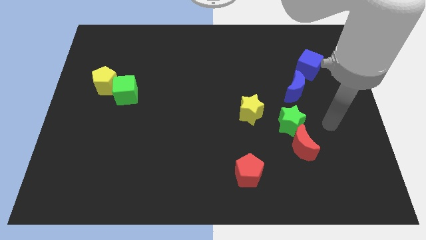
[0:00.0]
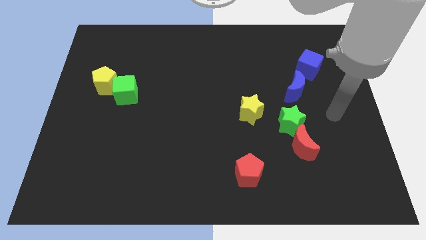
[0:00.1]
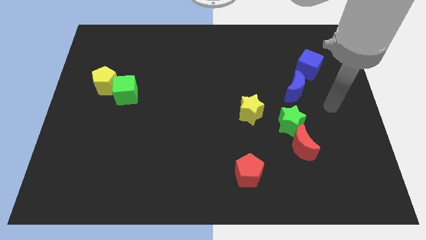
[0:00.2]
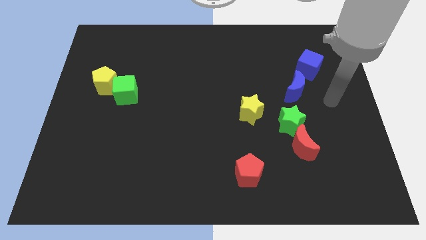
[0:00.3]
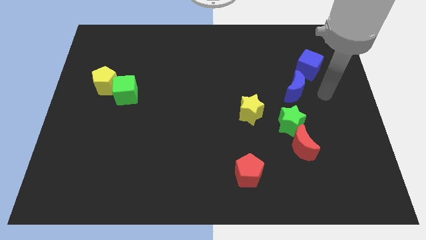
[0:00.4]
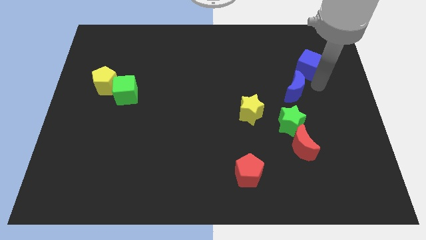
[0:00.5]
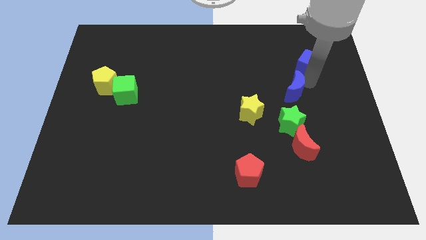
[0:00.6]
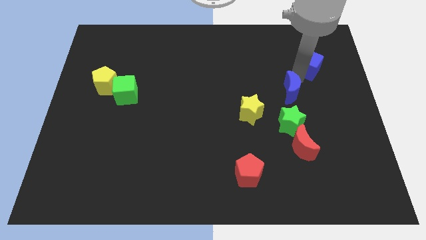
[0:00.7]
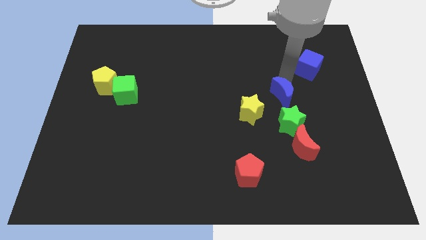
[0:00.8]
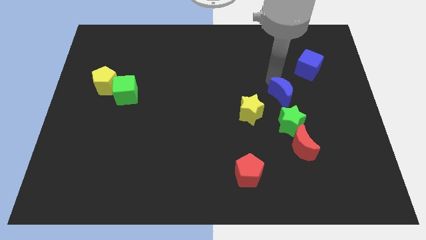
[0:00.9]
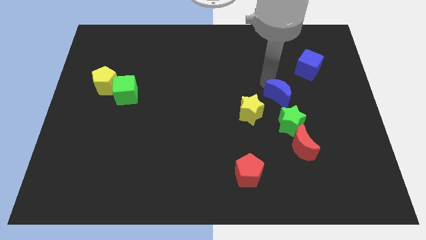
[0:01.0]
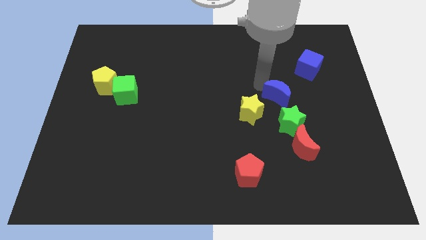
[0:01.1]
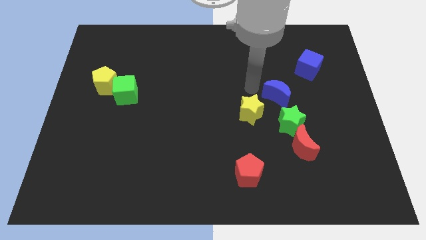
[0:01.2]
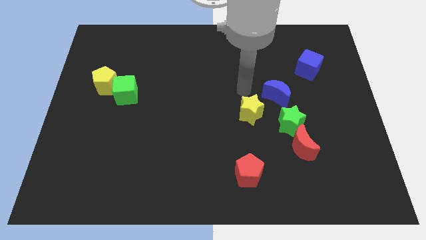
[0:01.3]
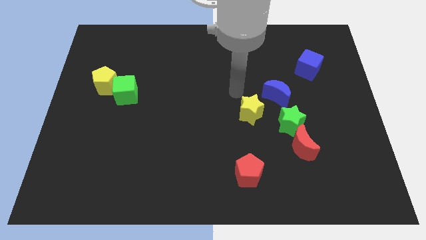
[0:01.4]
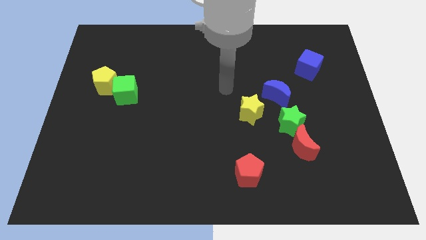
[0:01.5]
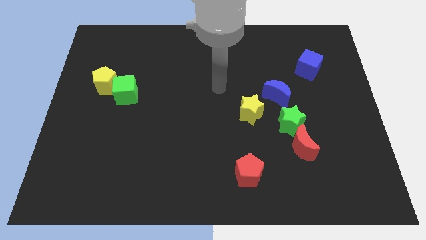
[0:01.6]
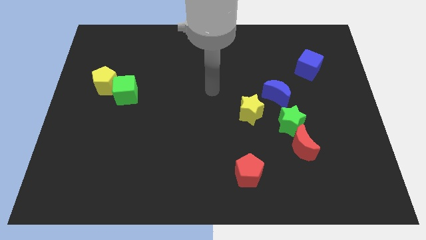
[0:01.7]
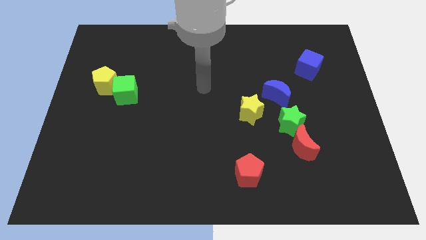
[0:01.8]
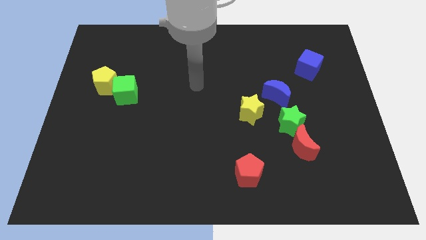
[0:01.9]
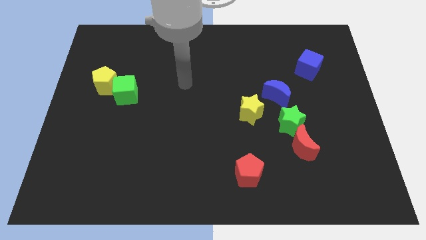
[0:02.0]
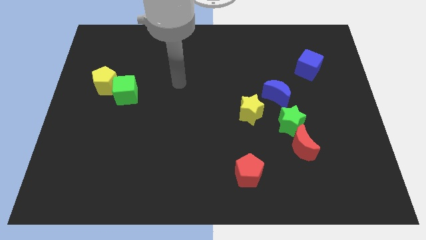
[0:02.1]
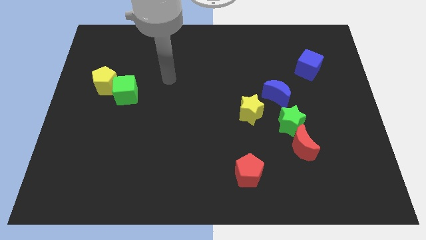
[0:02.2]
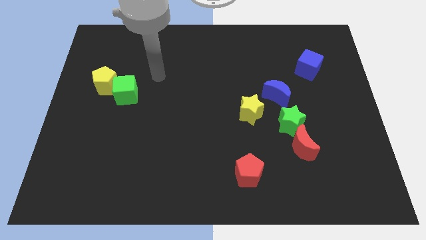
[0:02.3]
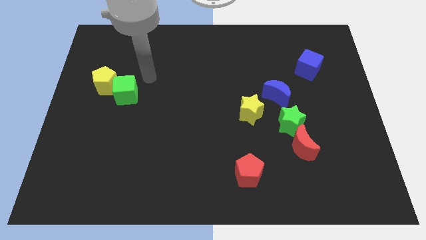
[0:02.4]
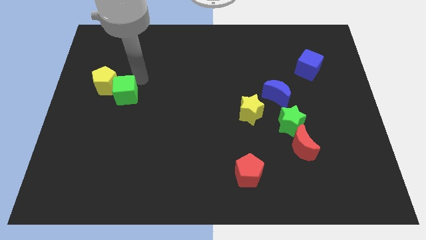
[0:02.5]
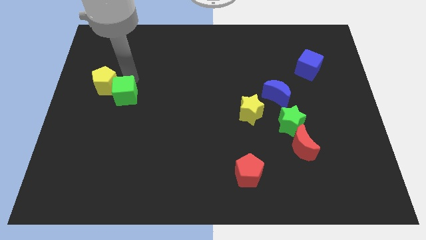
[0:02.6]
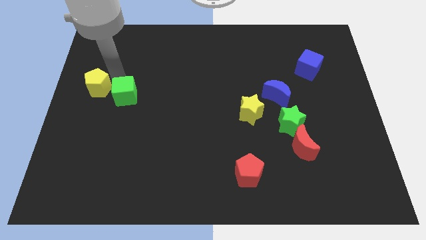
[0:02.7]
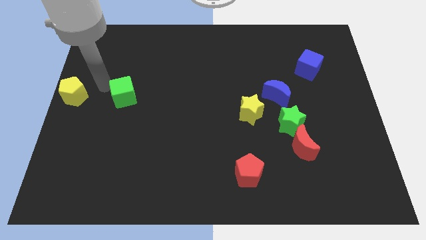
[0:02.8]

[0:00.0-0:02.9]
separate the green cube from the yellow pentagon

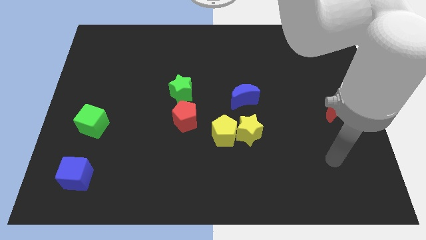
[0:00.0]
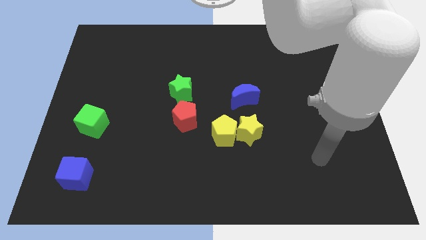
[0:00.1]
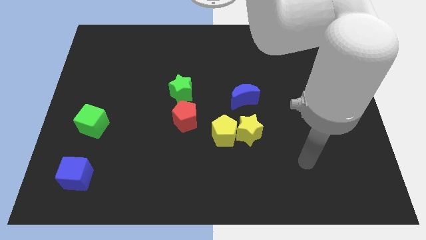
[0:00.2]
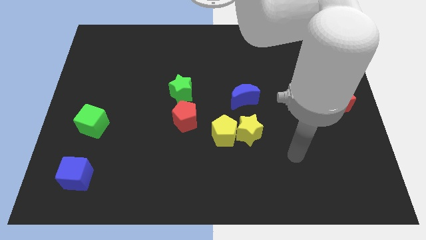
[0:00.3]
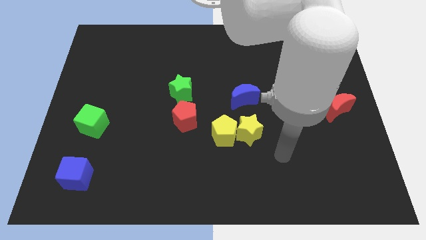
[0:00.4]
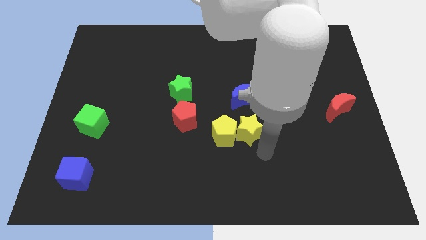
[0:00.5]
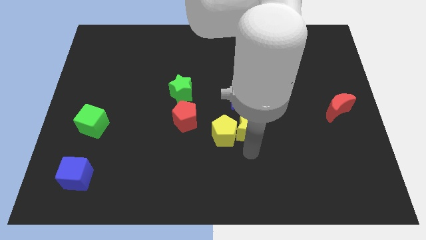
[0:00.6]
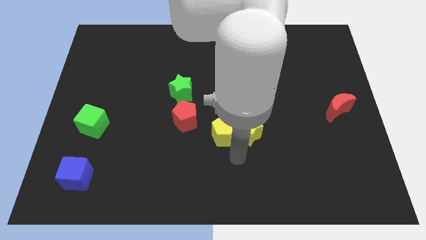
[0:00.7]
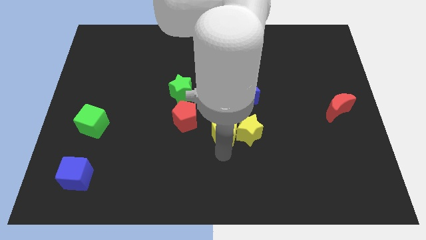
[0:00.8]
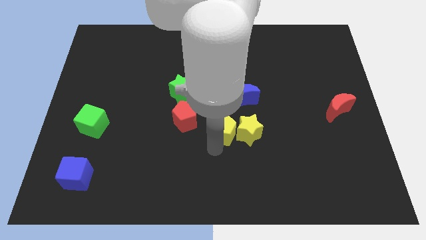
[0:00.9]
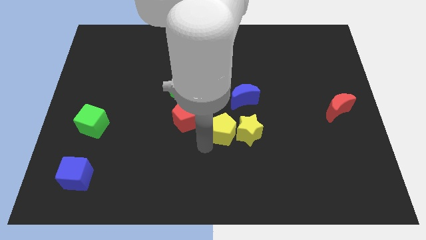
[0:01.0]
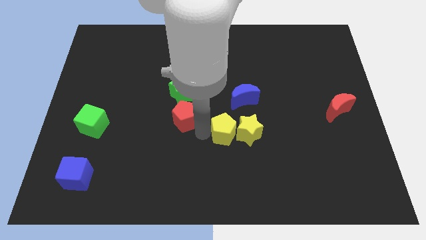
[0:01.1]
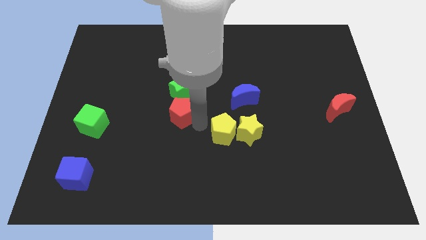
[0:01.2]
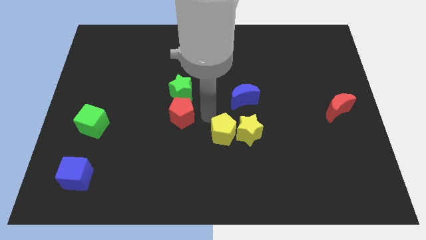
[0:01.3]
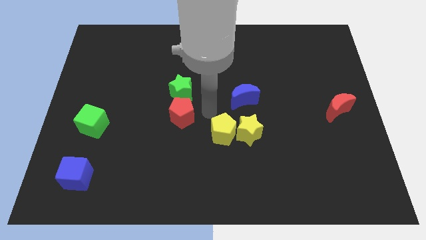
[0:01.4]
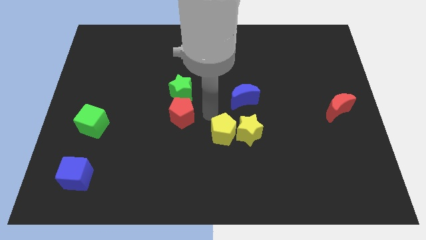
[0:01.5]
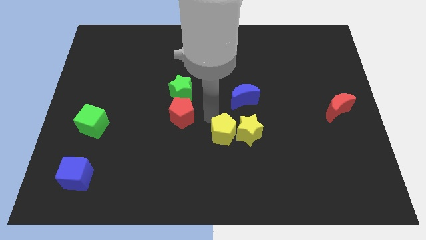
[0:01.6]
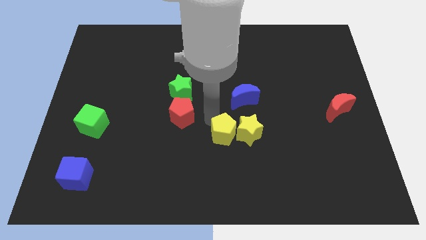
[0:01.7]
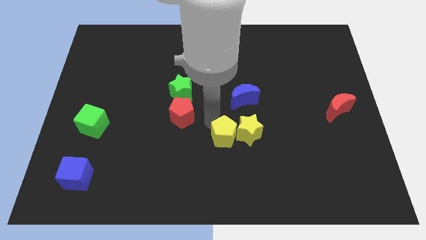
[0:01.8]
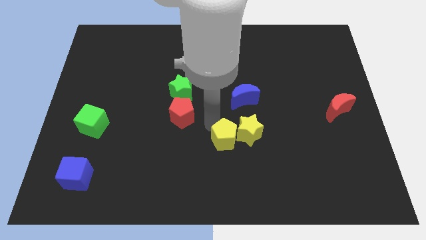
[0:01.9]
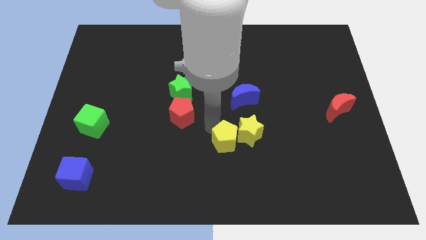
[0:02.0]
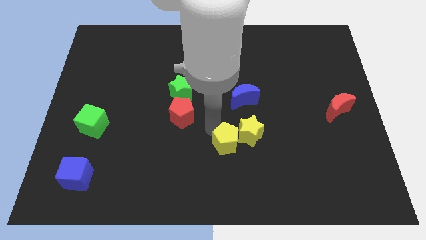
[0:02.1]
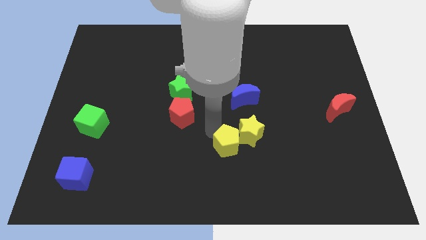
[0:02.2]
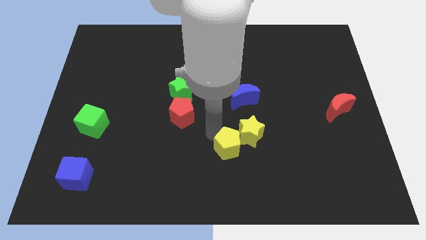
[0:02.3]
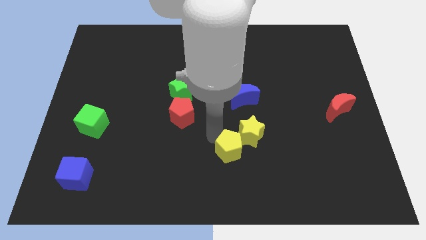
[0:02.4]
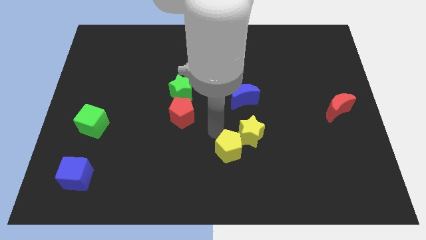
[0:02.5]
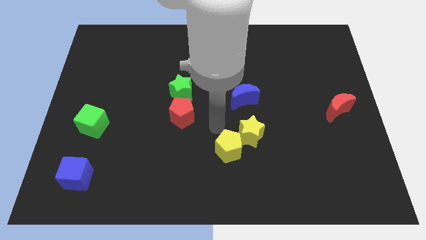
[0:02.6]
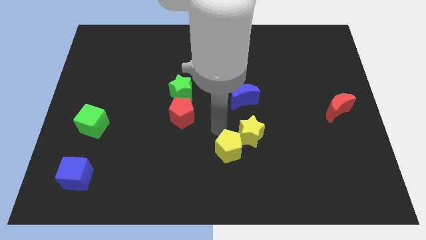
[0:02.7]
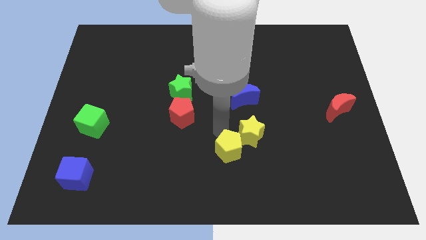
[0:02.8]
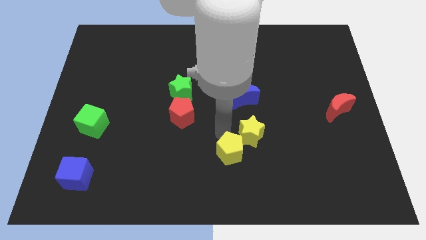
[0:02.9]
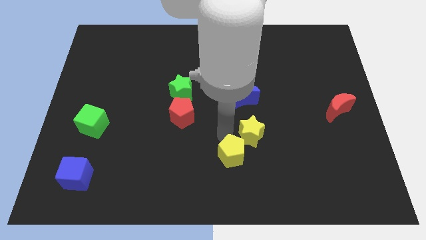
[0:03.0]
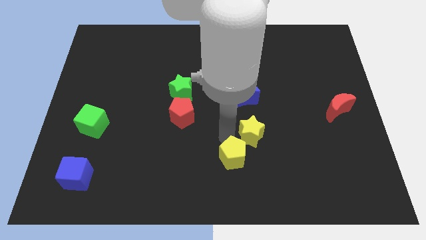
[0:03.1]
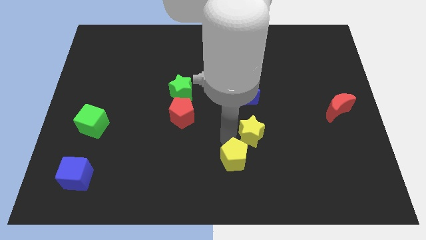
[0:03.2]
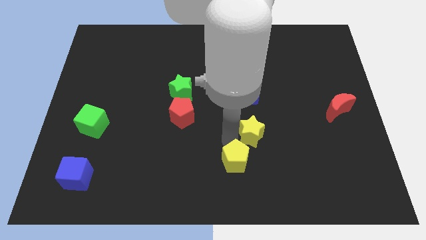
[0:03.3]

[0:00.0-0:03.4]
move the yellow pentagon away from the yellow star and red pentagon

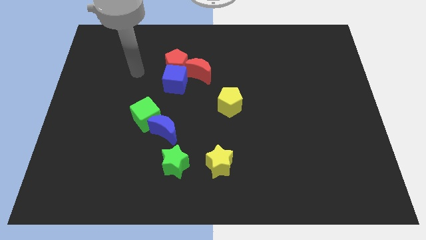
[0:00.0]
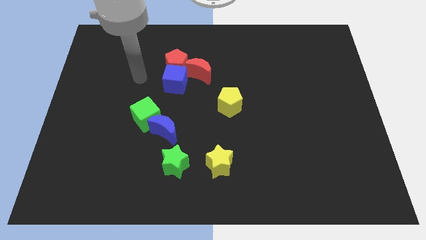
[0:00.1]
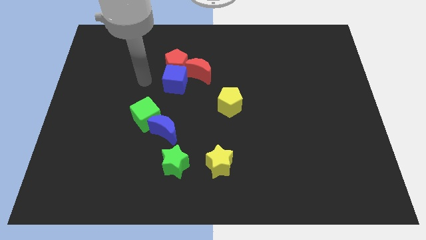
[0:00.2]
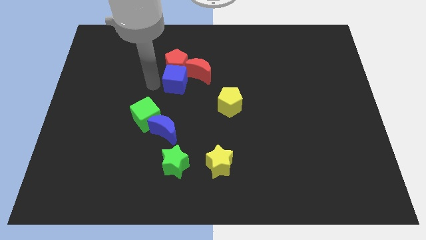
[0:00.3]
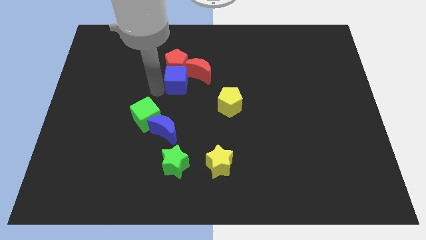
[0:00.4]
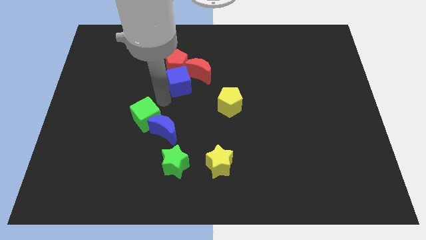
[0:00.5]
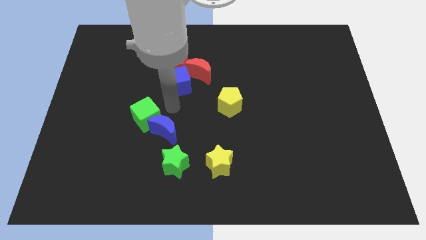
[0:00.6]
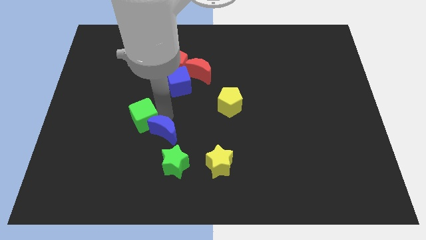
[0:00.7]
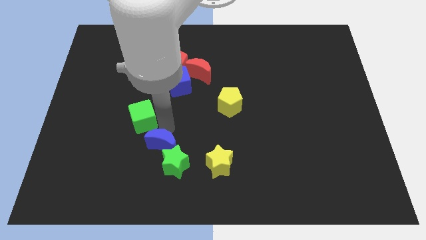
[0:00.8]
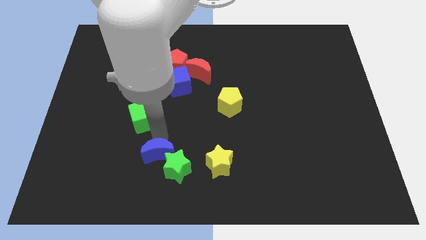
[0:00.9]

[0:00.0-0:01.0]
move the green cube away from the blue moon

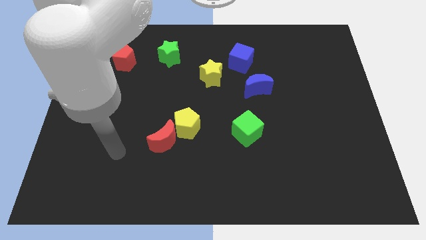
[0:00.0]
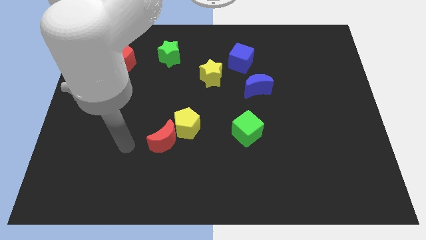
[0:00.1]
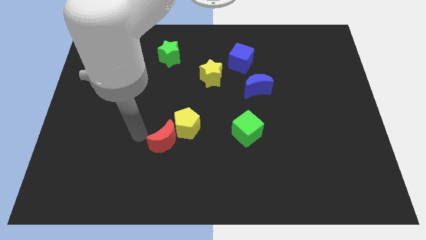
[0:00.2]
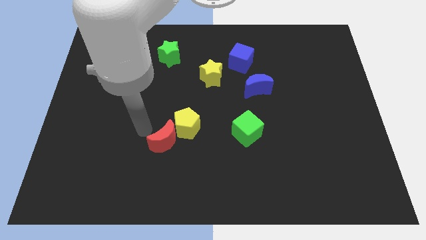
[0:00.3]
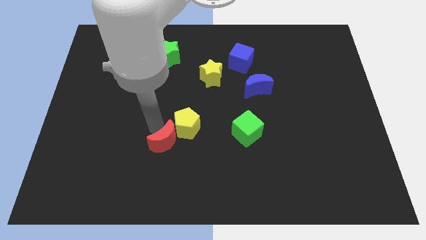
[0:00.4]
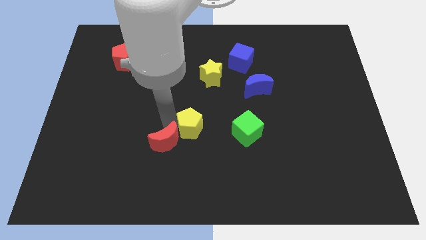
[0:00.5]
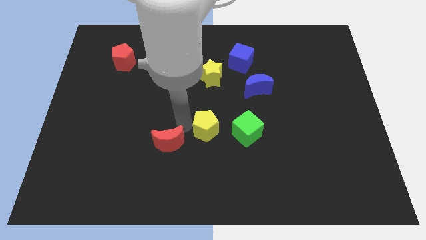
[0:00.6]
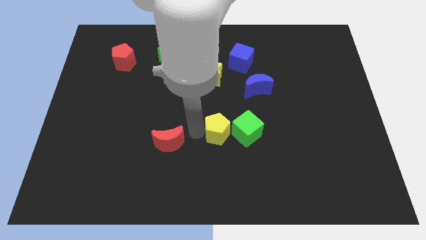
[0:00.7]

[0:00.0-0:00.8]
move the red moon away from the yellow pentagon

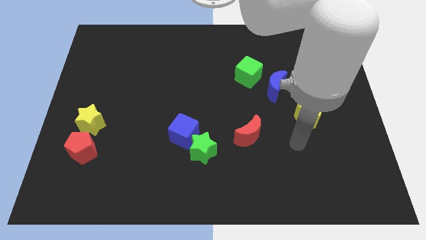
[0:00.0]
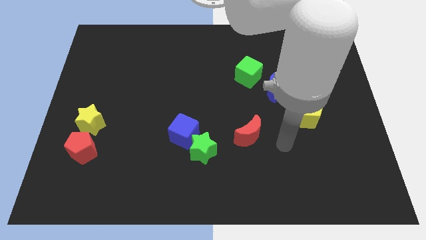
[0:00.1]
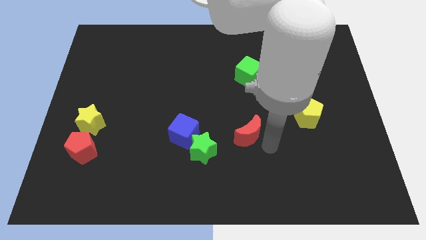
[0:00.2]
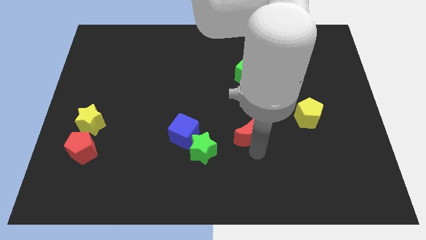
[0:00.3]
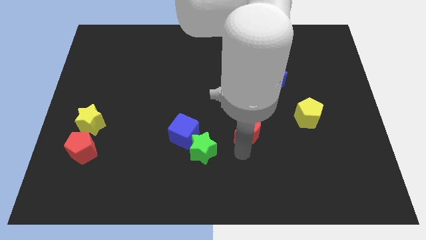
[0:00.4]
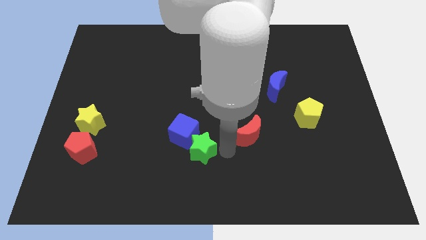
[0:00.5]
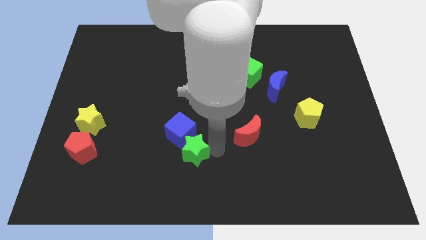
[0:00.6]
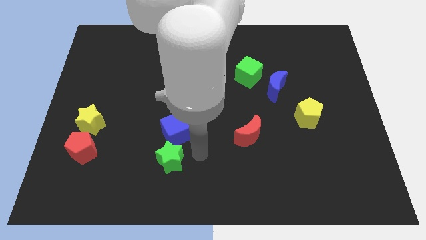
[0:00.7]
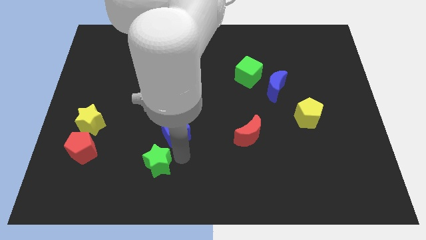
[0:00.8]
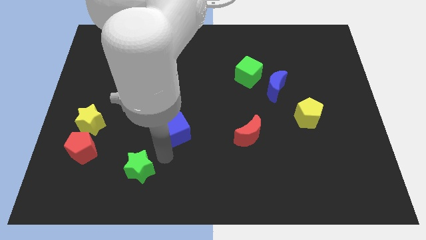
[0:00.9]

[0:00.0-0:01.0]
pull the blue cube apart from the green star
